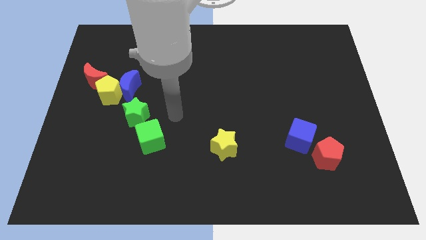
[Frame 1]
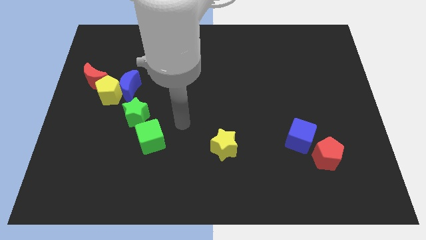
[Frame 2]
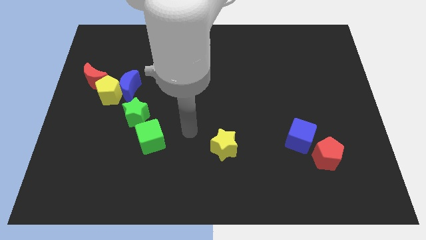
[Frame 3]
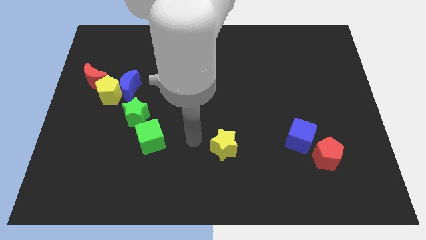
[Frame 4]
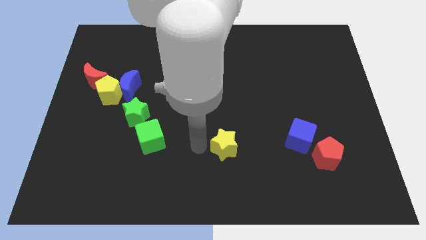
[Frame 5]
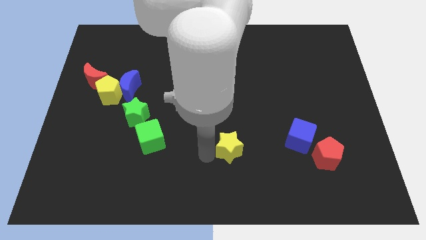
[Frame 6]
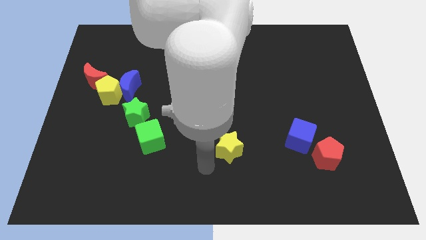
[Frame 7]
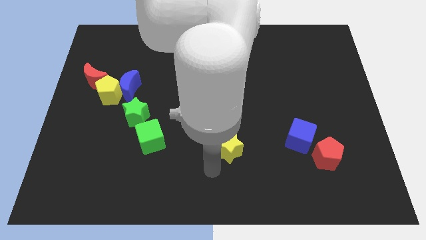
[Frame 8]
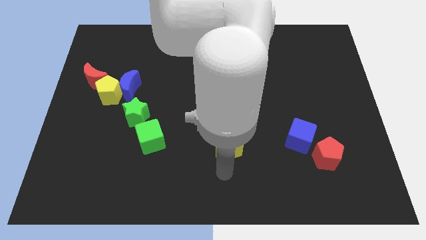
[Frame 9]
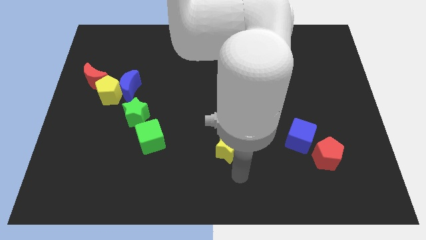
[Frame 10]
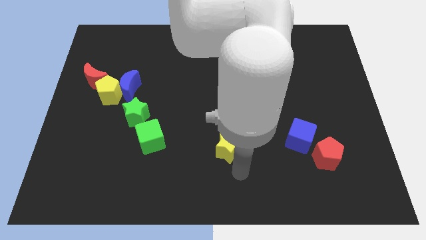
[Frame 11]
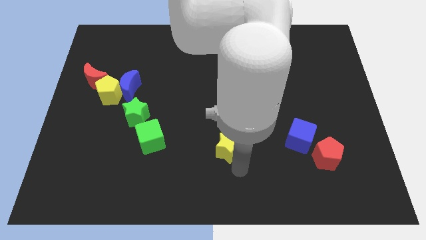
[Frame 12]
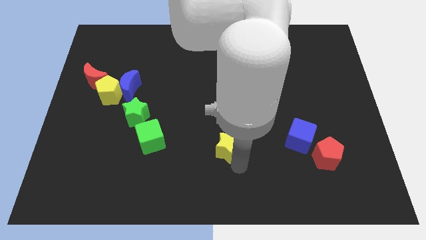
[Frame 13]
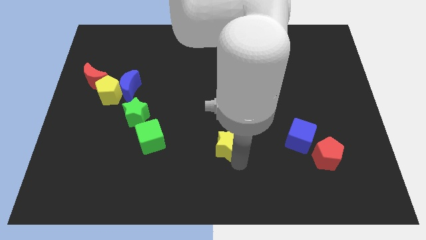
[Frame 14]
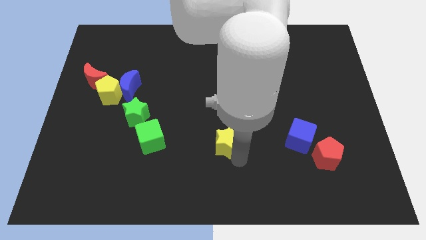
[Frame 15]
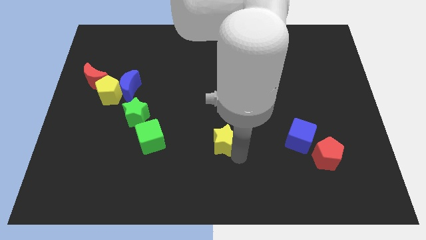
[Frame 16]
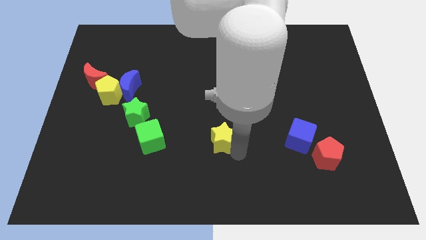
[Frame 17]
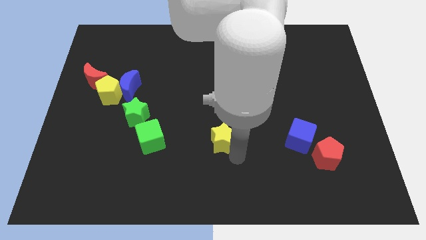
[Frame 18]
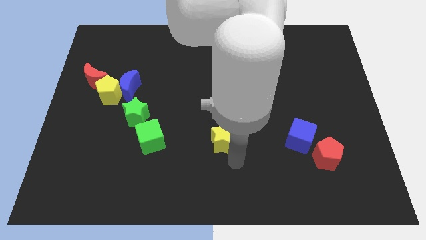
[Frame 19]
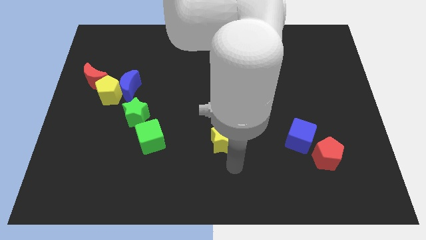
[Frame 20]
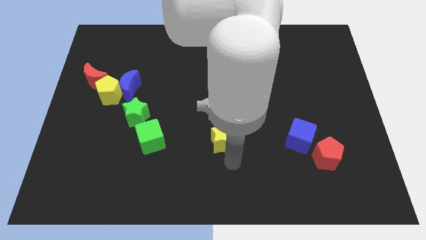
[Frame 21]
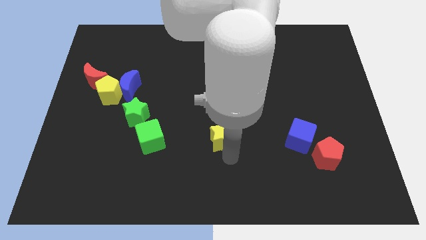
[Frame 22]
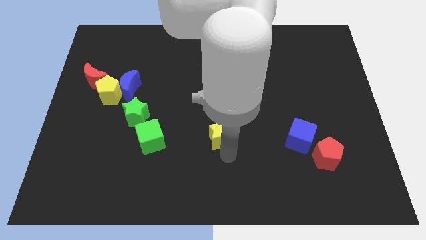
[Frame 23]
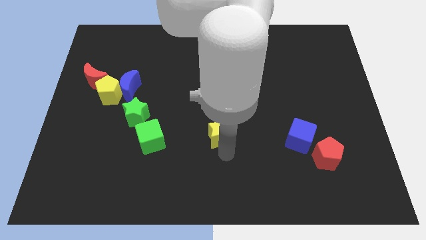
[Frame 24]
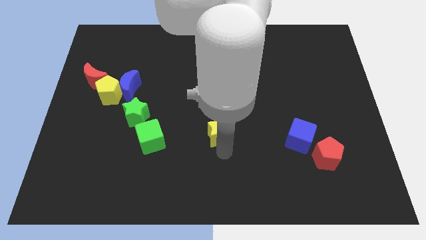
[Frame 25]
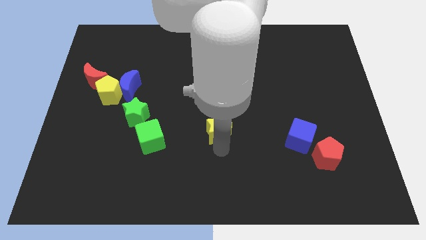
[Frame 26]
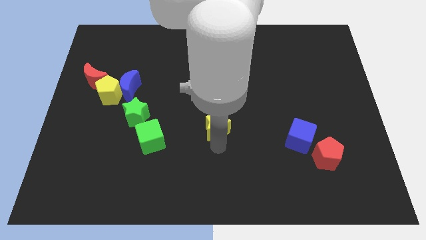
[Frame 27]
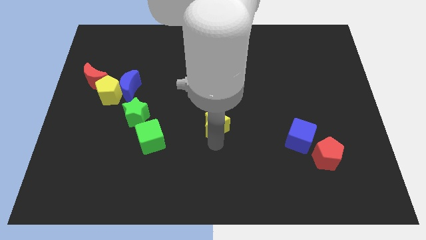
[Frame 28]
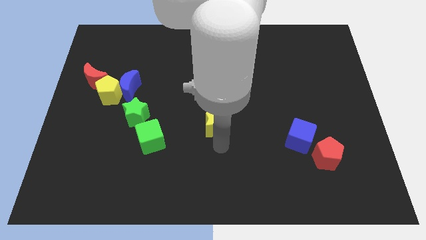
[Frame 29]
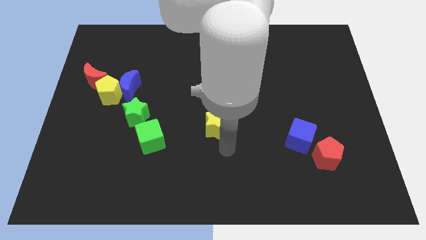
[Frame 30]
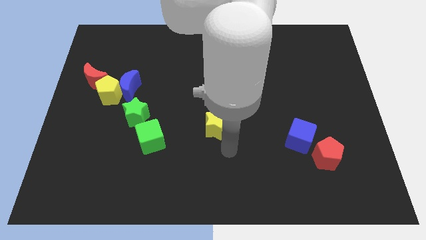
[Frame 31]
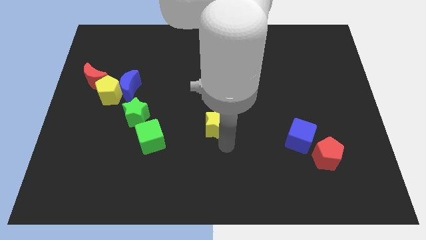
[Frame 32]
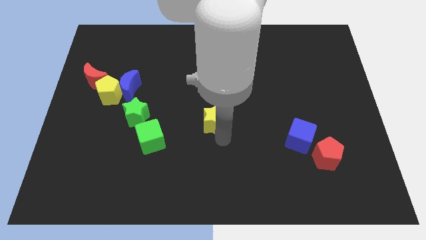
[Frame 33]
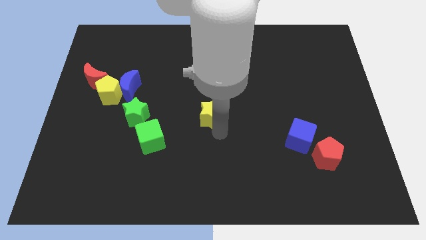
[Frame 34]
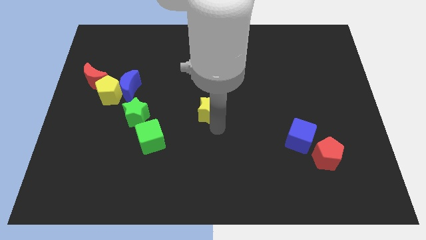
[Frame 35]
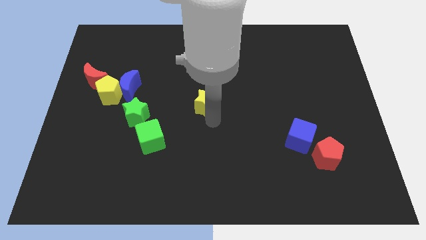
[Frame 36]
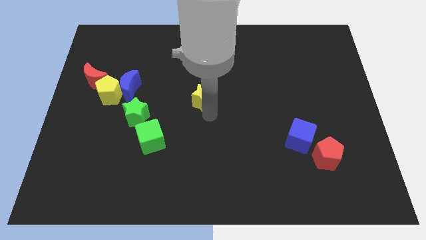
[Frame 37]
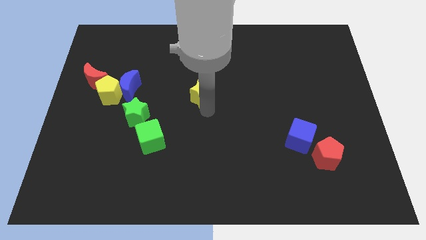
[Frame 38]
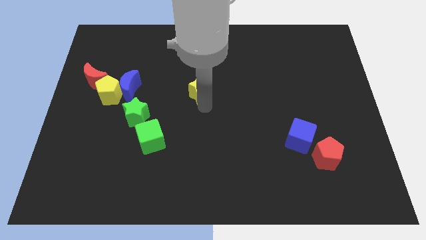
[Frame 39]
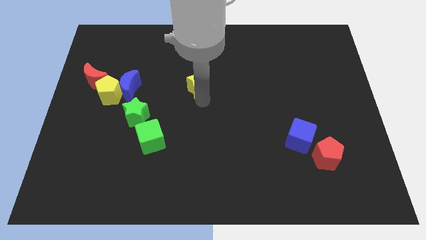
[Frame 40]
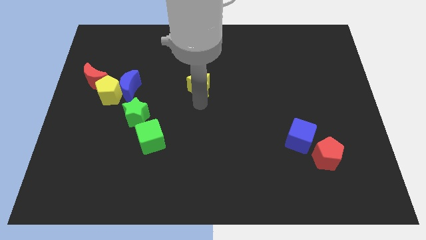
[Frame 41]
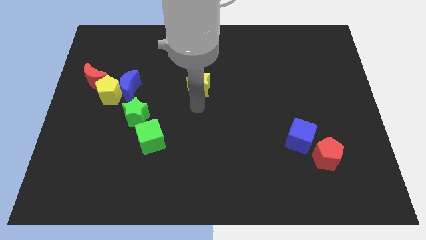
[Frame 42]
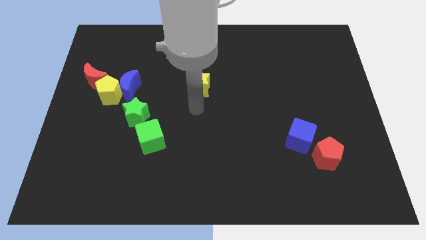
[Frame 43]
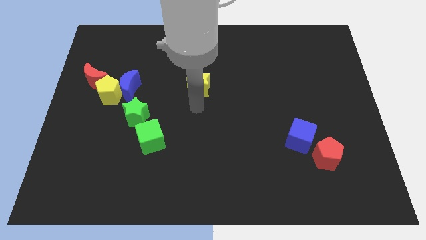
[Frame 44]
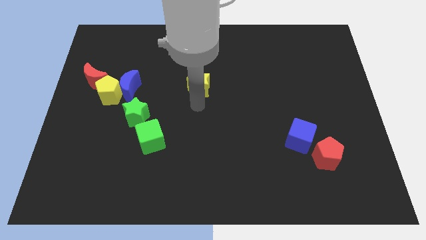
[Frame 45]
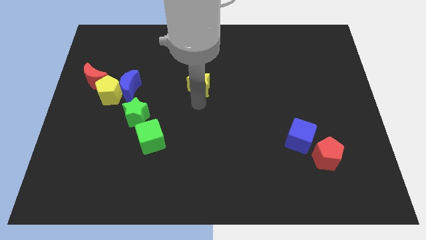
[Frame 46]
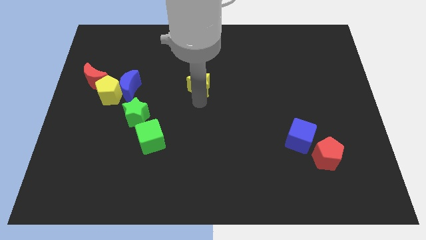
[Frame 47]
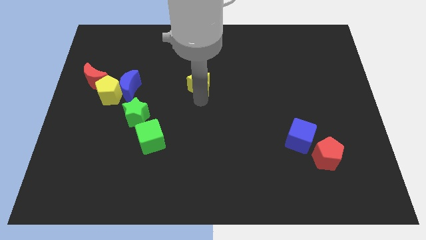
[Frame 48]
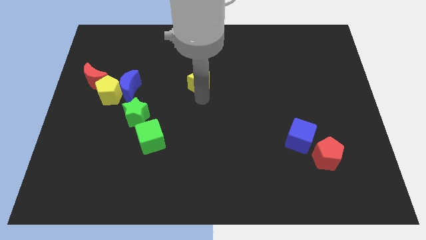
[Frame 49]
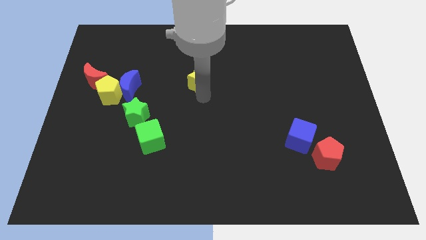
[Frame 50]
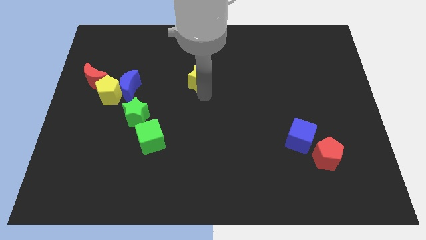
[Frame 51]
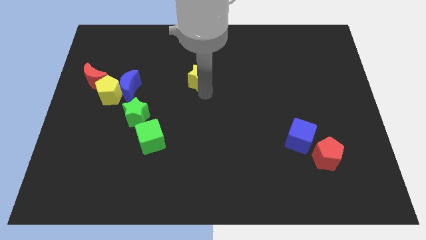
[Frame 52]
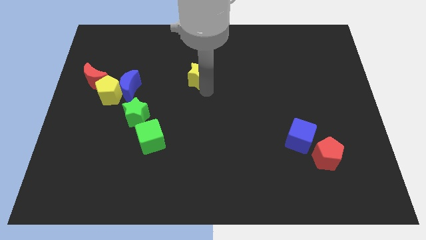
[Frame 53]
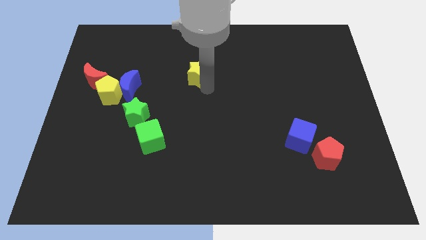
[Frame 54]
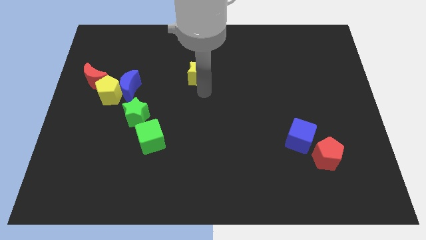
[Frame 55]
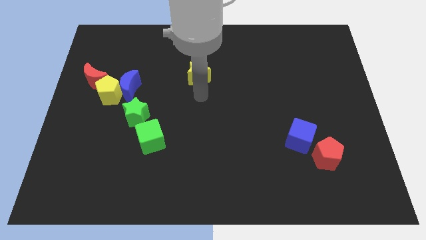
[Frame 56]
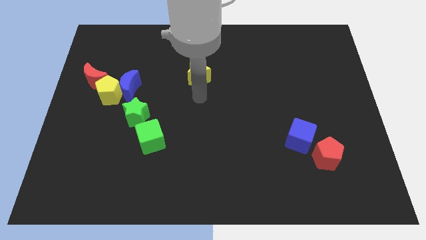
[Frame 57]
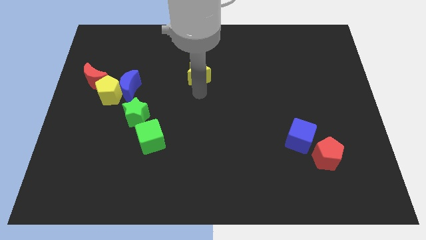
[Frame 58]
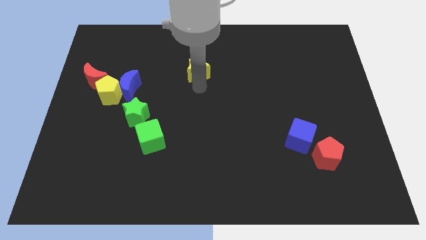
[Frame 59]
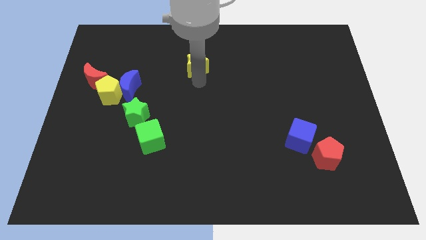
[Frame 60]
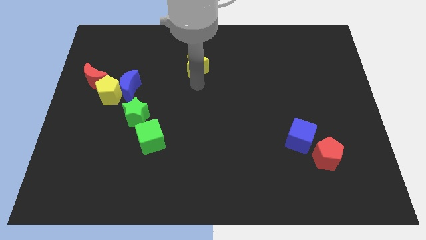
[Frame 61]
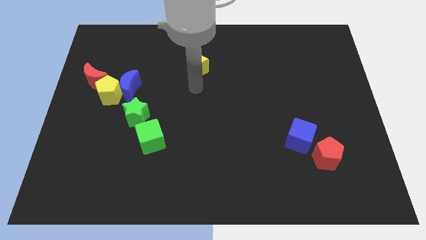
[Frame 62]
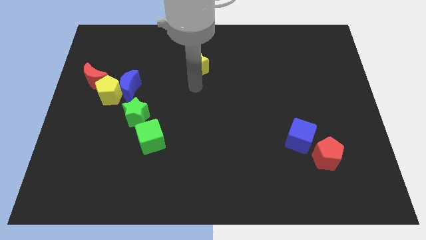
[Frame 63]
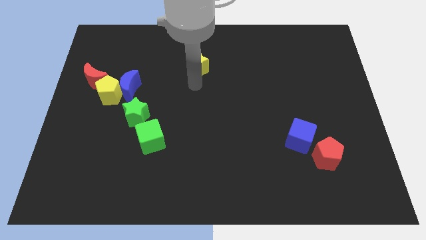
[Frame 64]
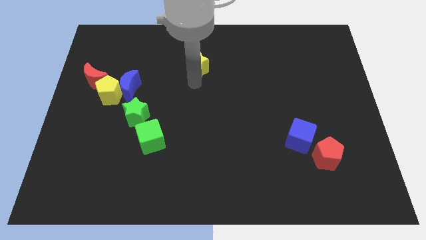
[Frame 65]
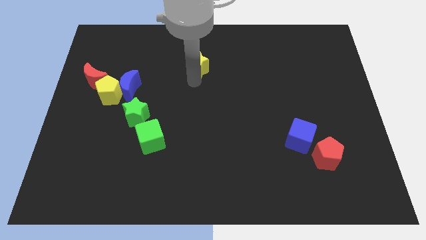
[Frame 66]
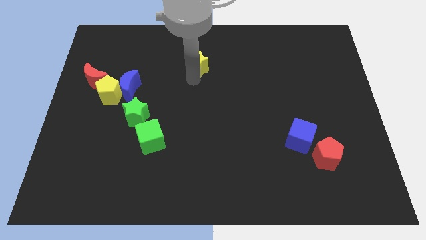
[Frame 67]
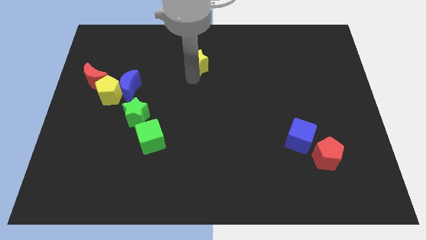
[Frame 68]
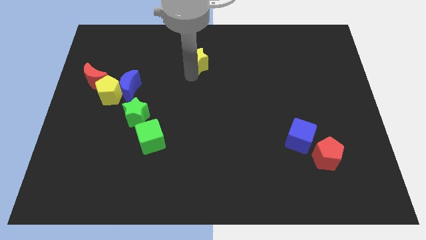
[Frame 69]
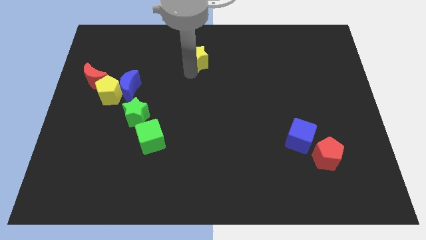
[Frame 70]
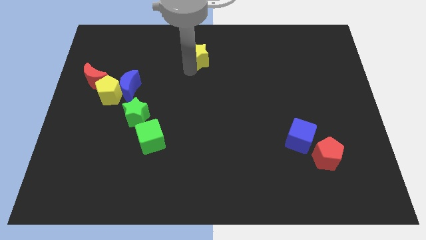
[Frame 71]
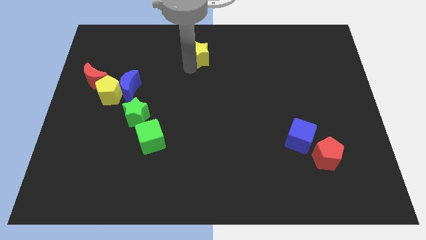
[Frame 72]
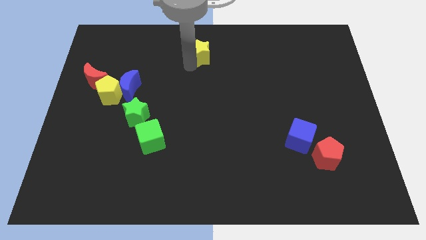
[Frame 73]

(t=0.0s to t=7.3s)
push the yellow star to the top
